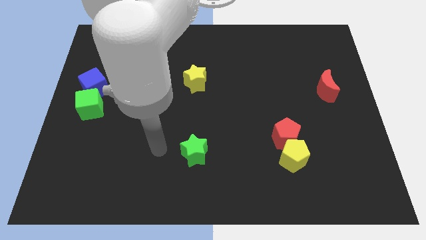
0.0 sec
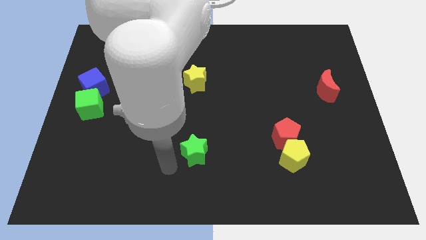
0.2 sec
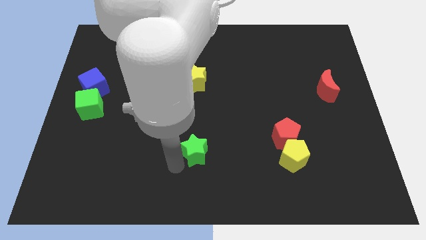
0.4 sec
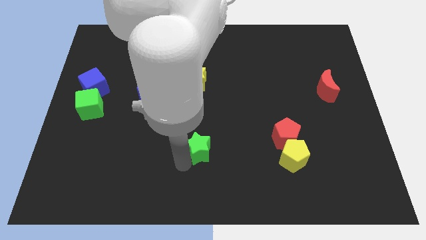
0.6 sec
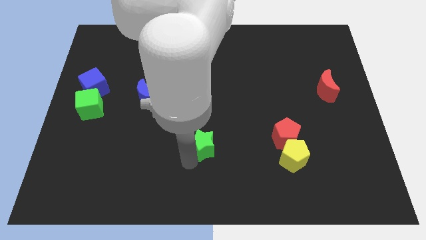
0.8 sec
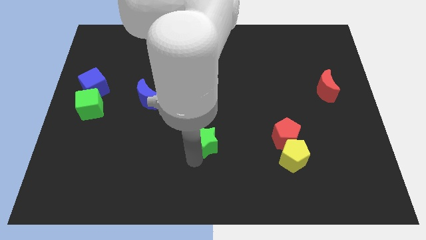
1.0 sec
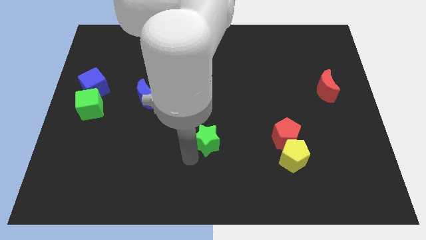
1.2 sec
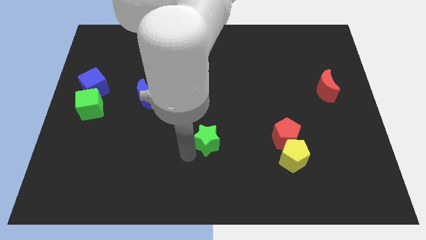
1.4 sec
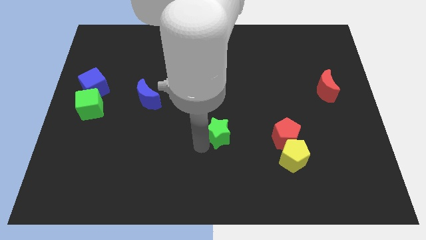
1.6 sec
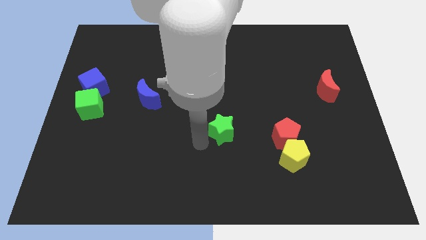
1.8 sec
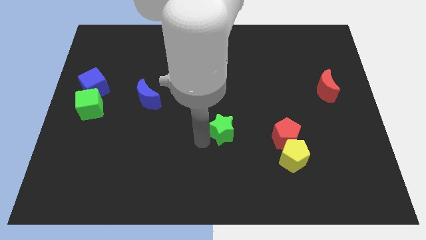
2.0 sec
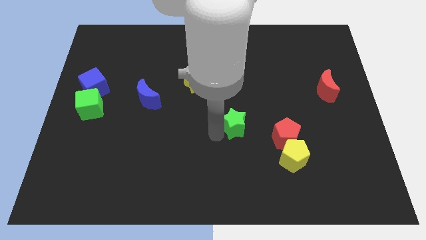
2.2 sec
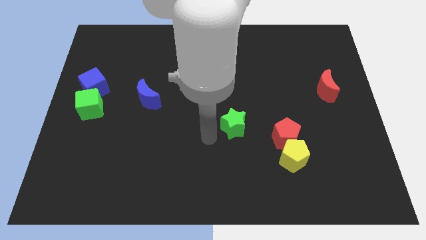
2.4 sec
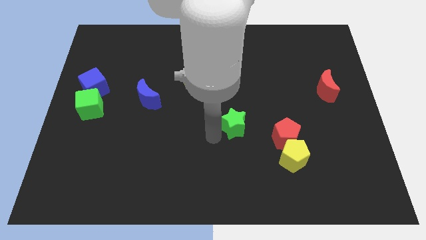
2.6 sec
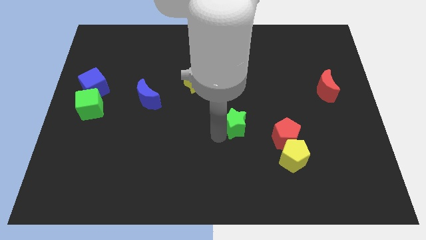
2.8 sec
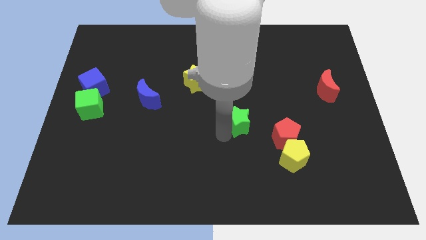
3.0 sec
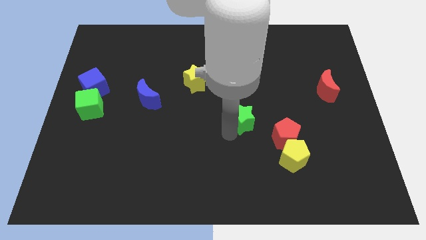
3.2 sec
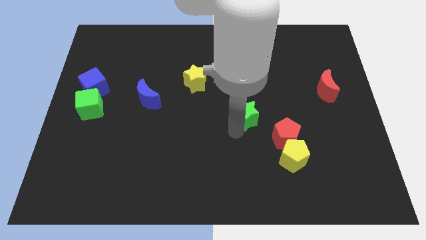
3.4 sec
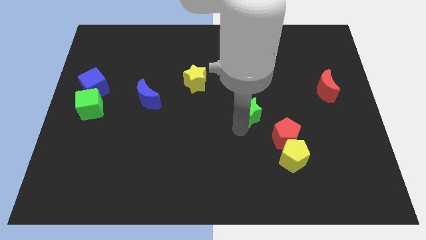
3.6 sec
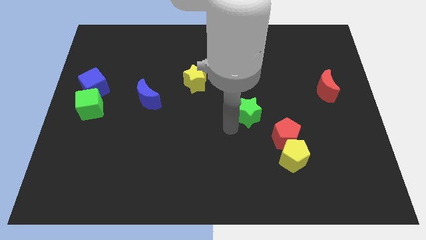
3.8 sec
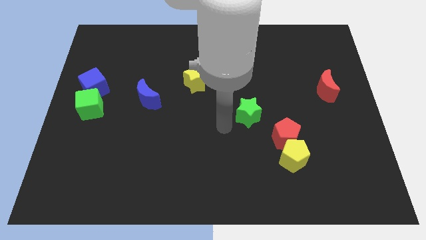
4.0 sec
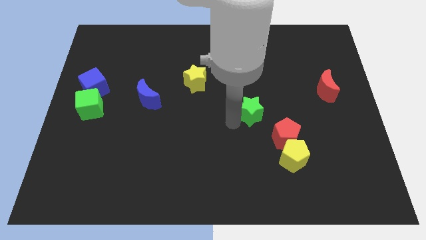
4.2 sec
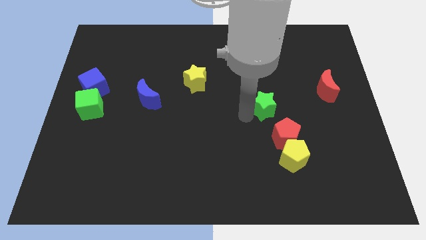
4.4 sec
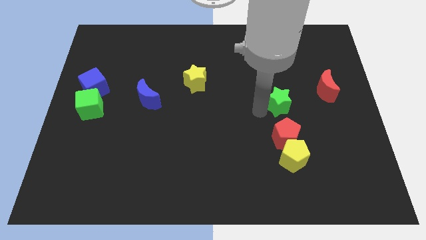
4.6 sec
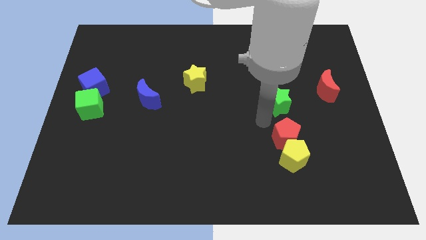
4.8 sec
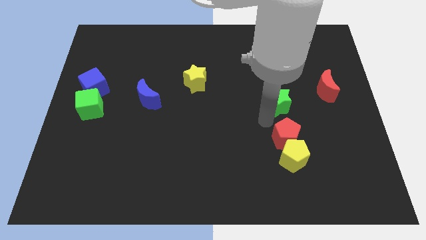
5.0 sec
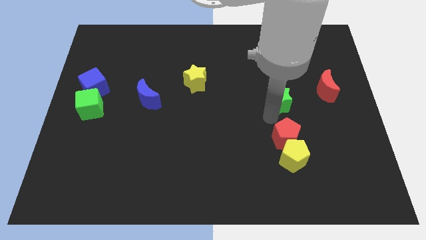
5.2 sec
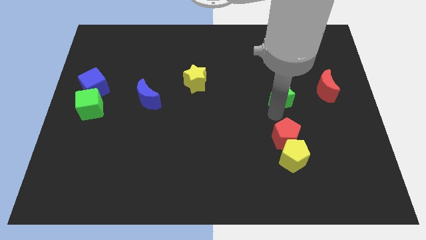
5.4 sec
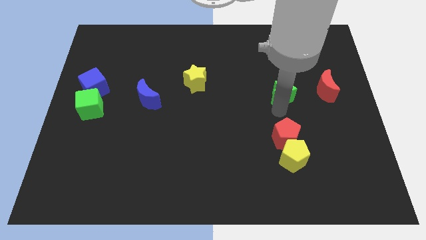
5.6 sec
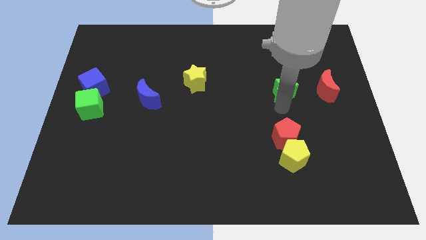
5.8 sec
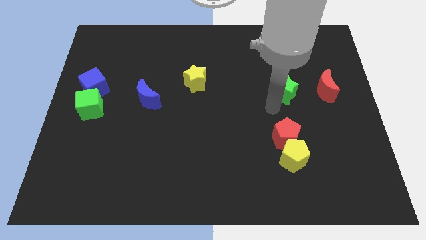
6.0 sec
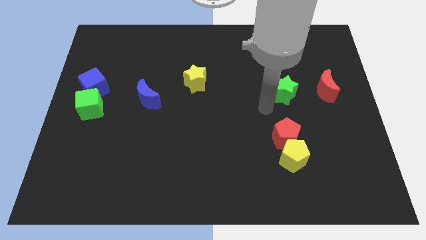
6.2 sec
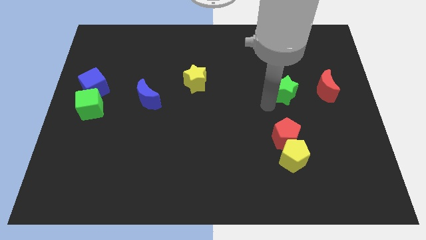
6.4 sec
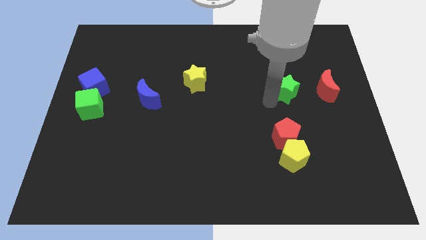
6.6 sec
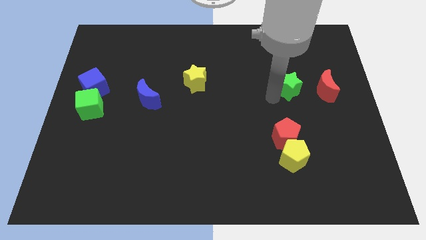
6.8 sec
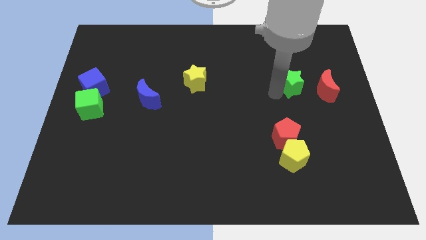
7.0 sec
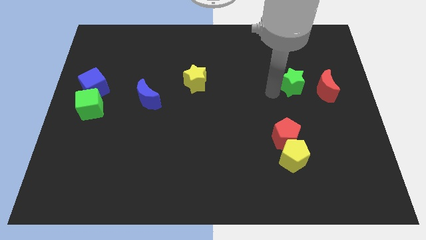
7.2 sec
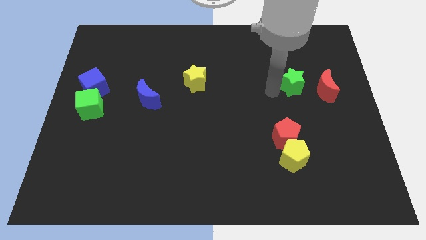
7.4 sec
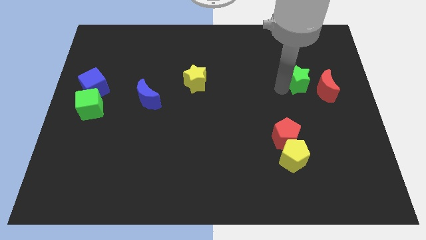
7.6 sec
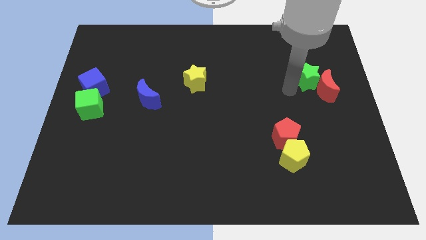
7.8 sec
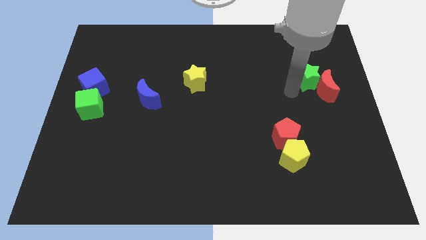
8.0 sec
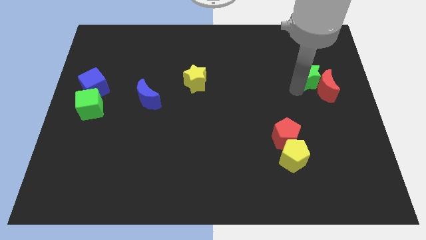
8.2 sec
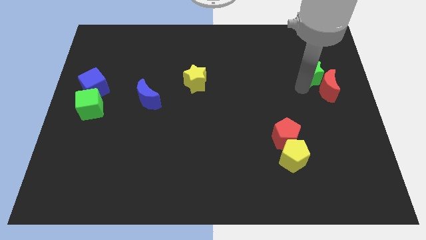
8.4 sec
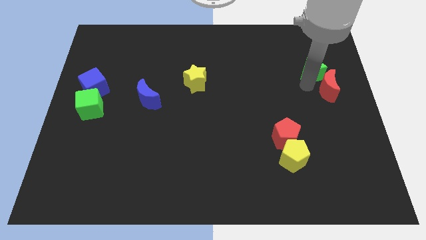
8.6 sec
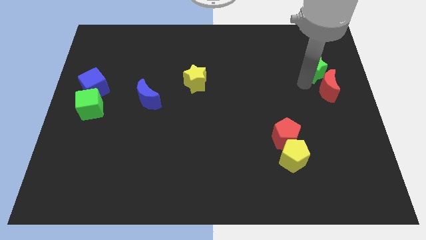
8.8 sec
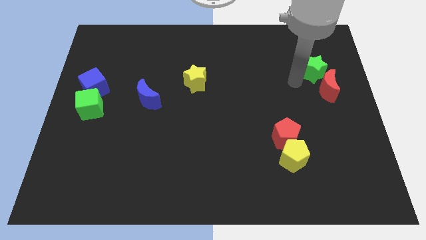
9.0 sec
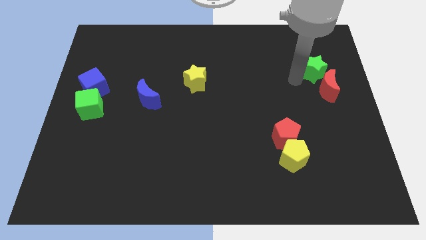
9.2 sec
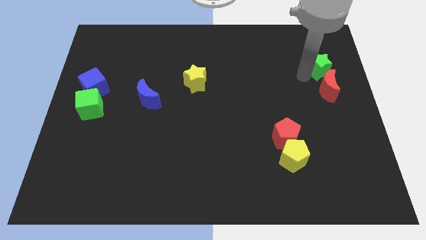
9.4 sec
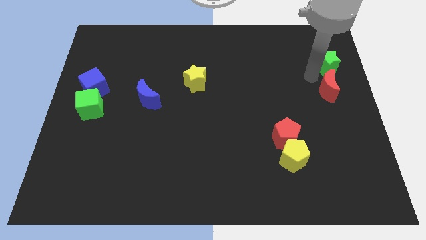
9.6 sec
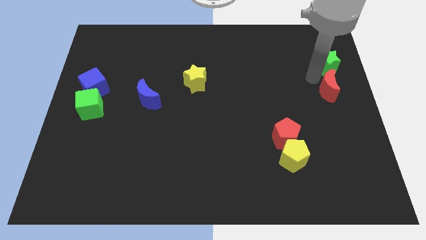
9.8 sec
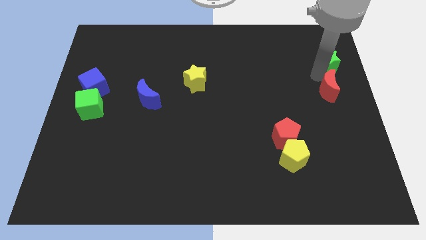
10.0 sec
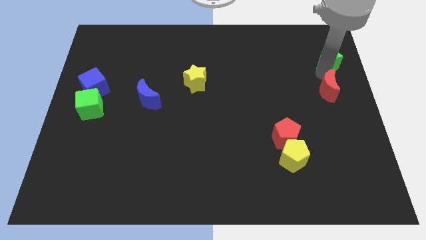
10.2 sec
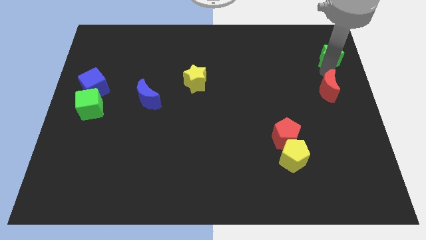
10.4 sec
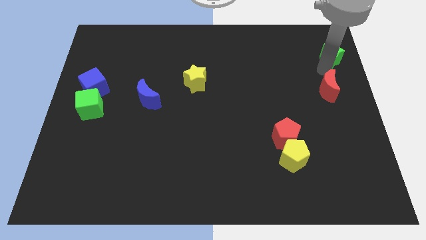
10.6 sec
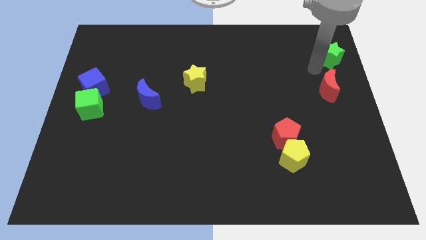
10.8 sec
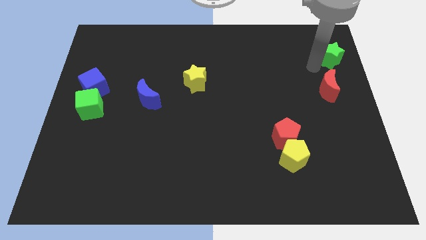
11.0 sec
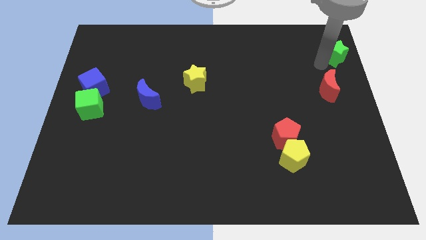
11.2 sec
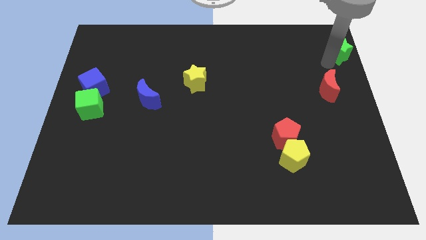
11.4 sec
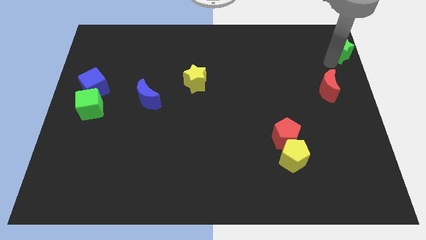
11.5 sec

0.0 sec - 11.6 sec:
slide the green star to the top right

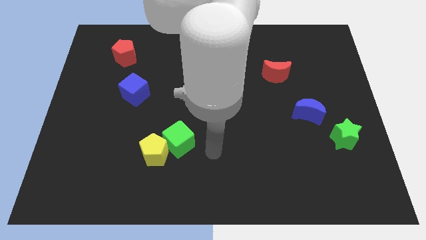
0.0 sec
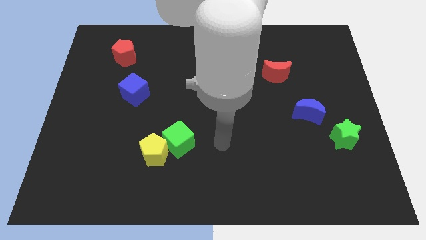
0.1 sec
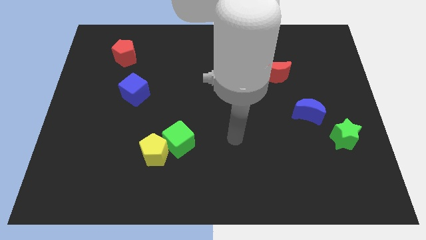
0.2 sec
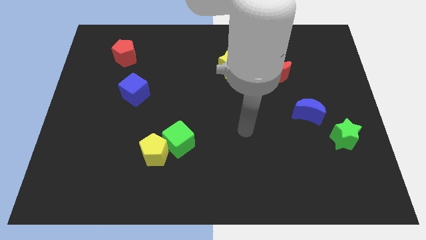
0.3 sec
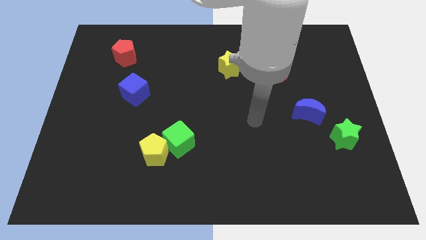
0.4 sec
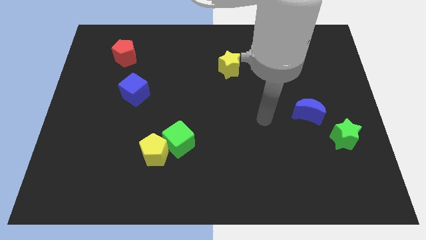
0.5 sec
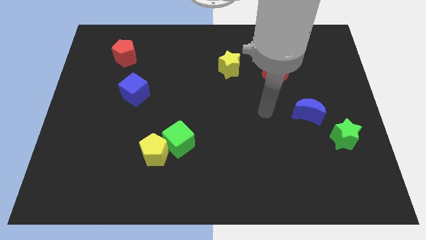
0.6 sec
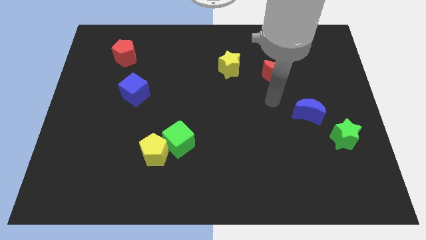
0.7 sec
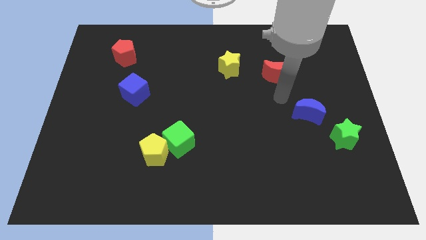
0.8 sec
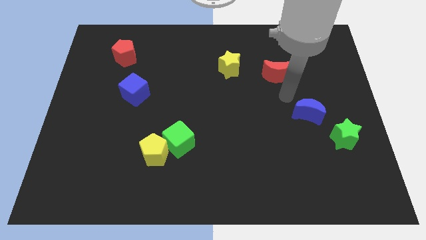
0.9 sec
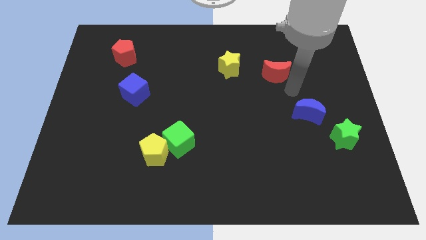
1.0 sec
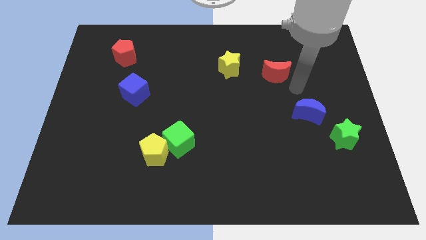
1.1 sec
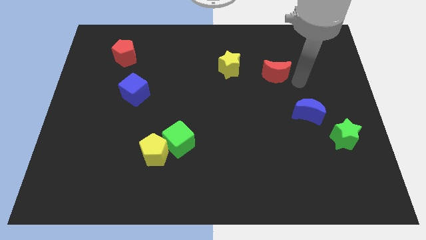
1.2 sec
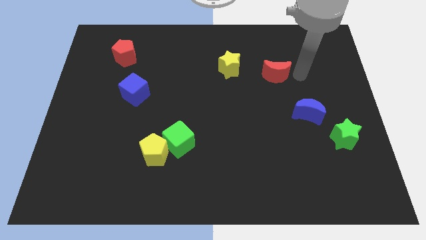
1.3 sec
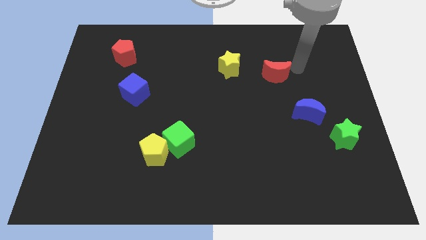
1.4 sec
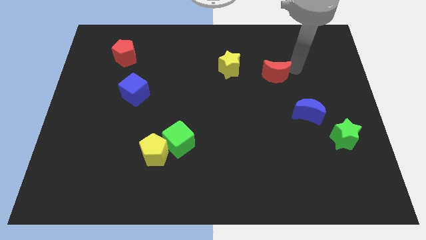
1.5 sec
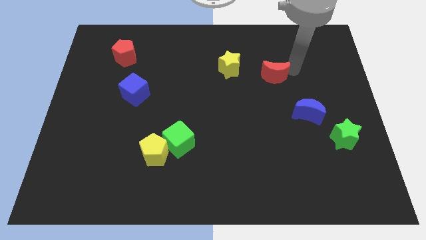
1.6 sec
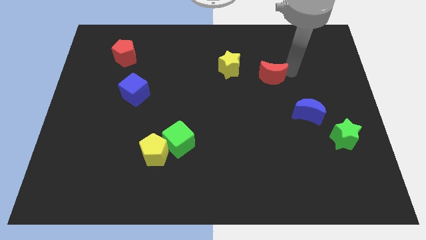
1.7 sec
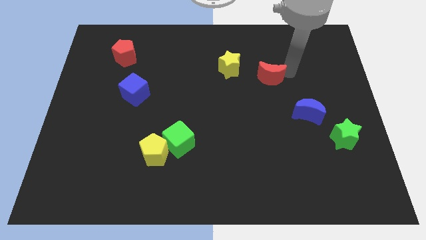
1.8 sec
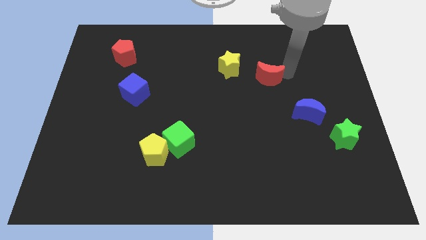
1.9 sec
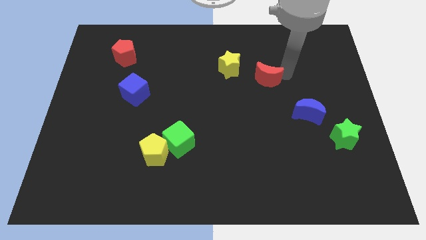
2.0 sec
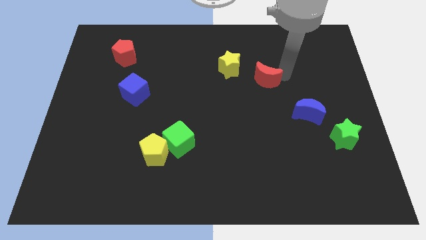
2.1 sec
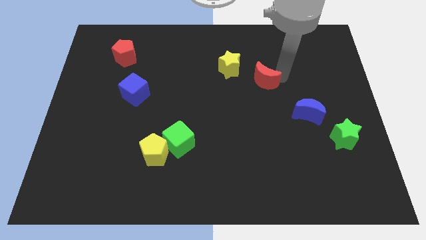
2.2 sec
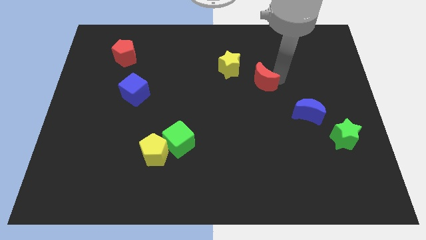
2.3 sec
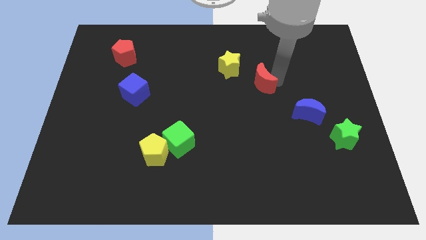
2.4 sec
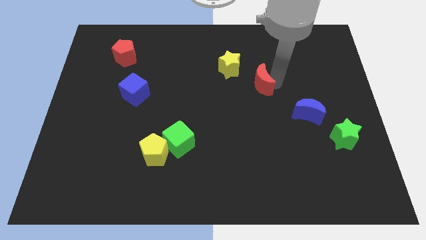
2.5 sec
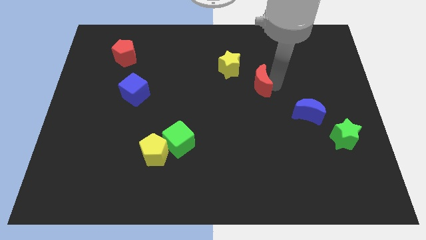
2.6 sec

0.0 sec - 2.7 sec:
move the red moon to the center of the board
